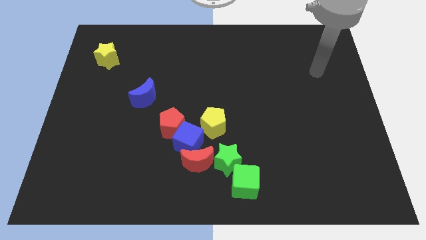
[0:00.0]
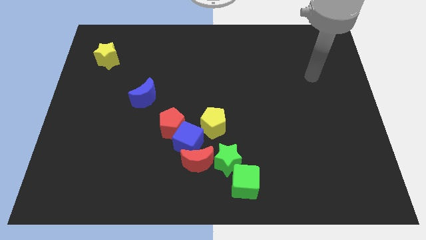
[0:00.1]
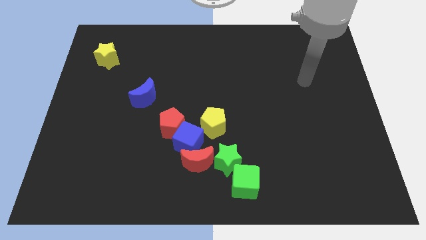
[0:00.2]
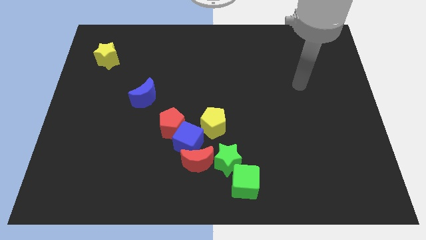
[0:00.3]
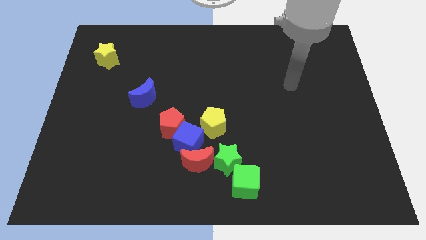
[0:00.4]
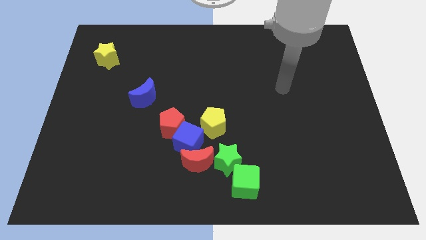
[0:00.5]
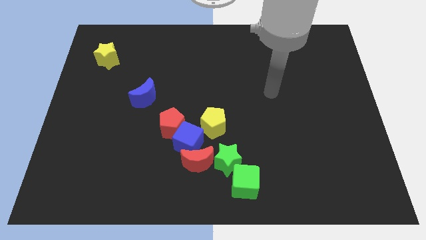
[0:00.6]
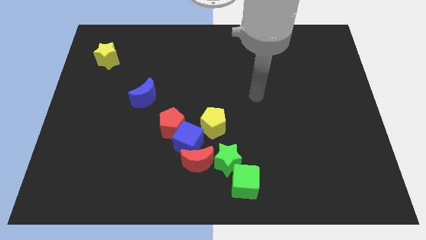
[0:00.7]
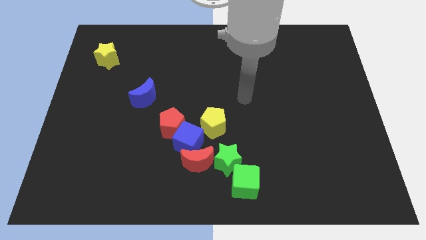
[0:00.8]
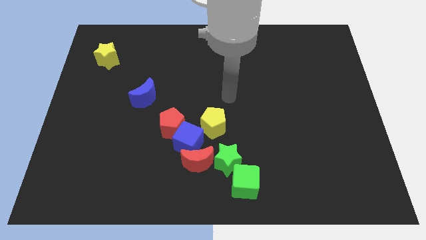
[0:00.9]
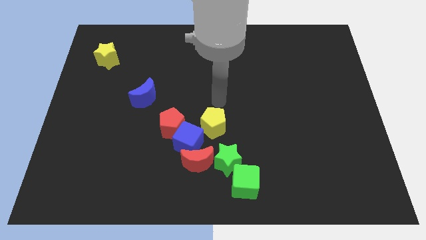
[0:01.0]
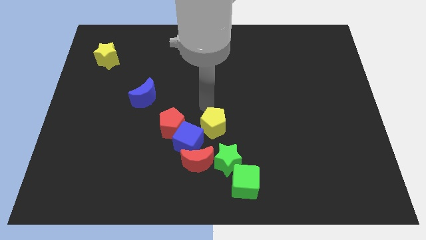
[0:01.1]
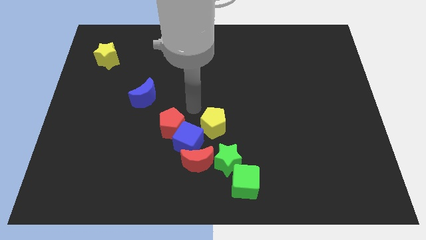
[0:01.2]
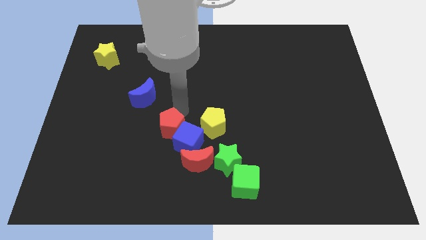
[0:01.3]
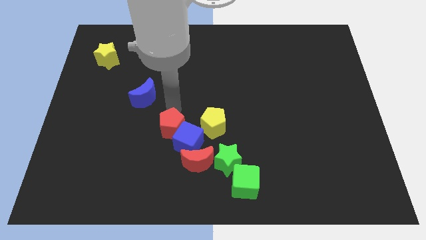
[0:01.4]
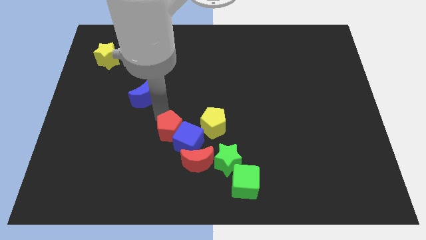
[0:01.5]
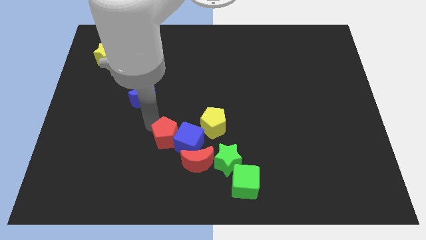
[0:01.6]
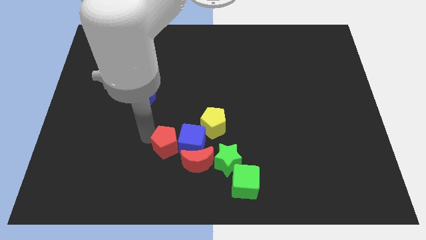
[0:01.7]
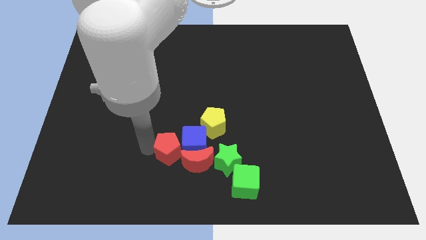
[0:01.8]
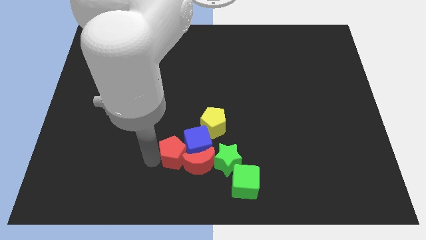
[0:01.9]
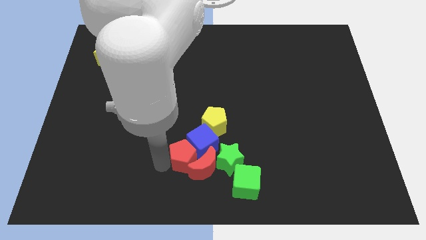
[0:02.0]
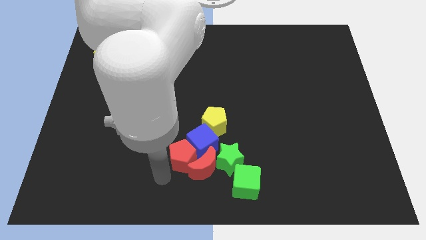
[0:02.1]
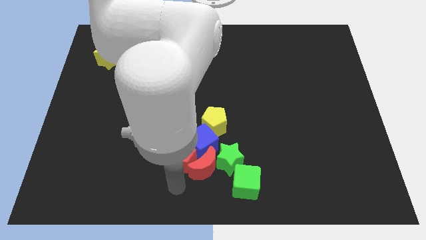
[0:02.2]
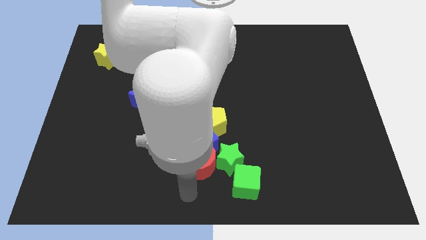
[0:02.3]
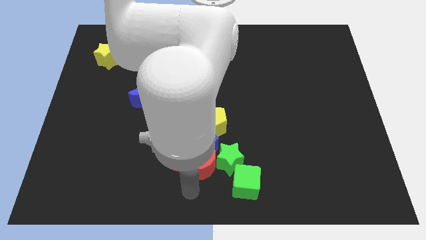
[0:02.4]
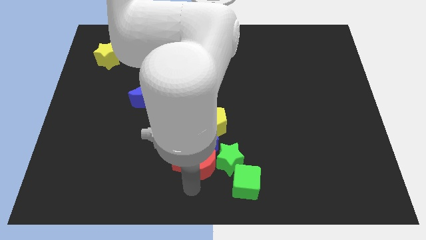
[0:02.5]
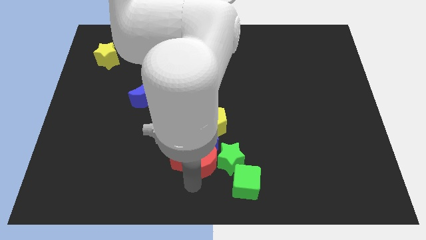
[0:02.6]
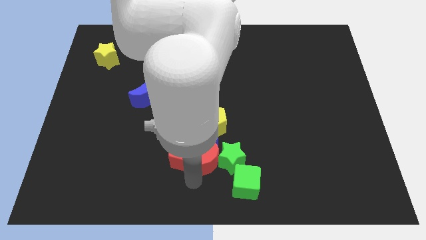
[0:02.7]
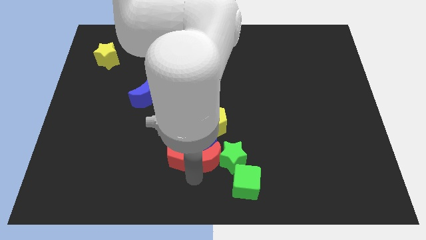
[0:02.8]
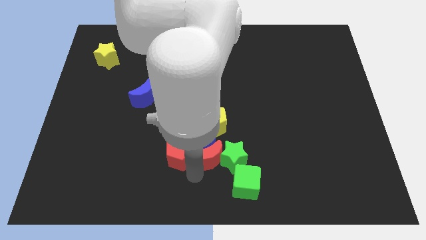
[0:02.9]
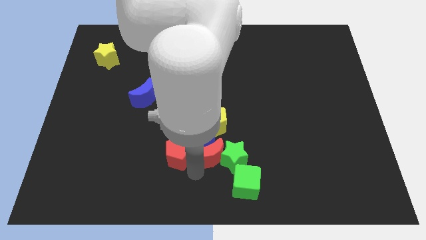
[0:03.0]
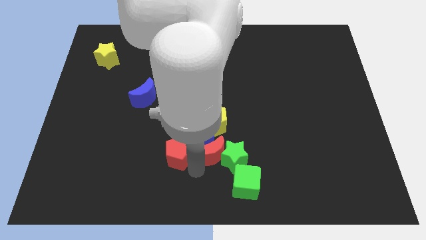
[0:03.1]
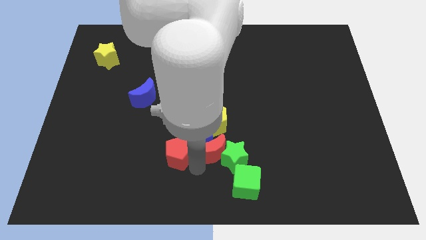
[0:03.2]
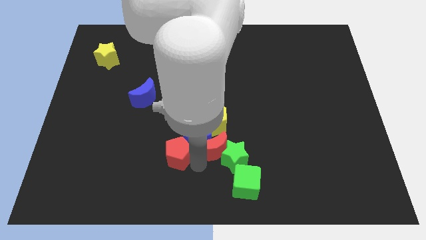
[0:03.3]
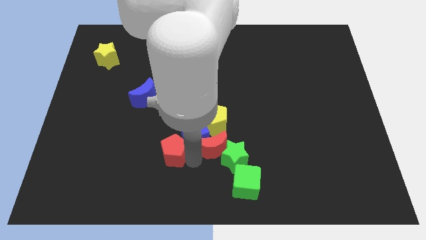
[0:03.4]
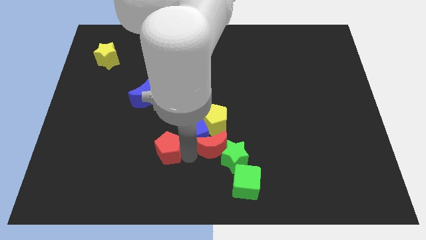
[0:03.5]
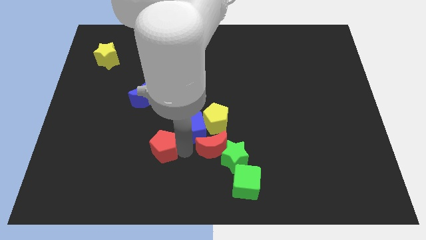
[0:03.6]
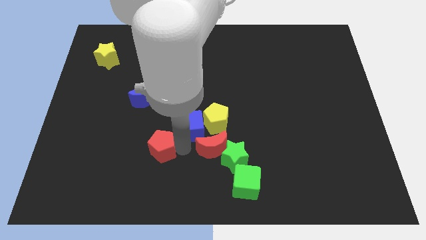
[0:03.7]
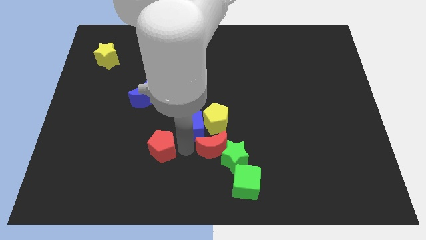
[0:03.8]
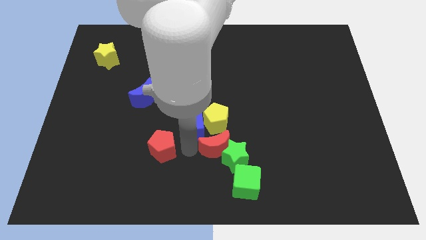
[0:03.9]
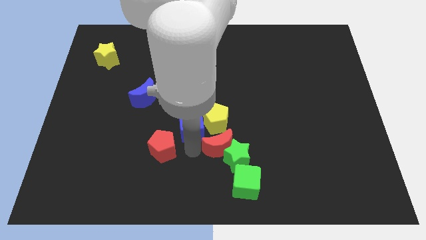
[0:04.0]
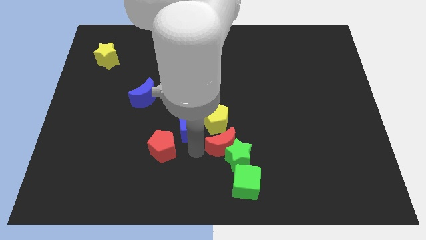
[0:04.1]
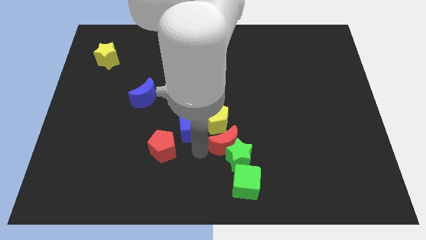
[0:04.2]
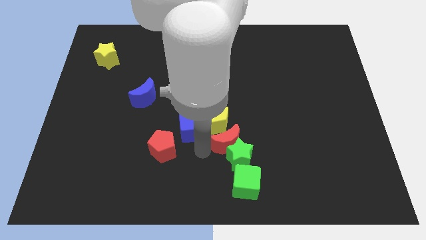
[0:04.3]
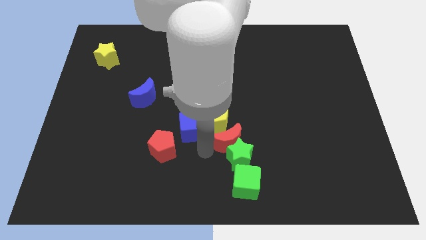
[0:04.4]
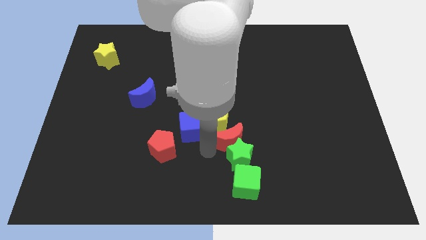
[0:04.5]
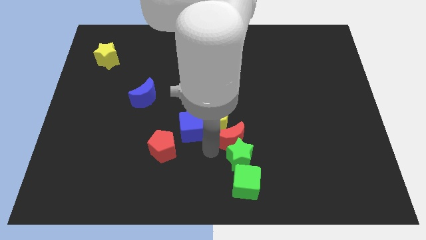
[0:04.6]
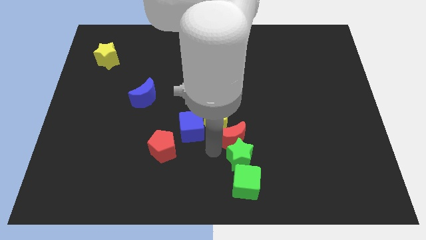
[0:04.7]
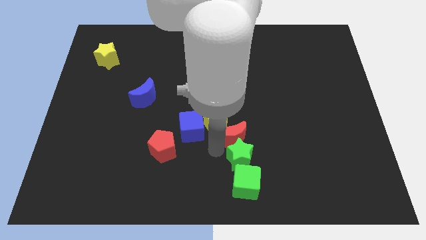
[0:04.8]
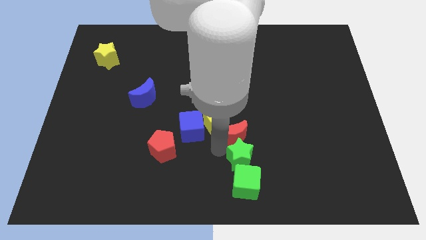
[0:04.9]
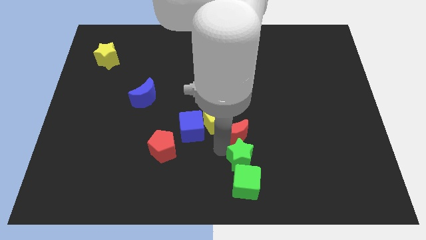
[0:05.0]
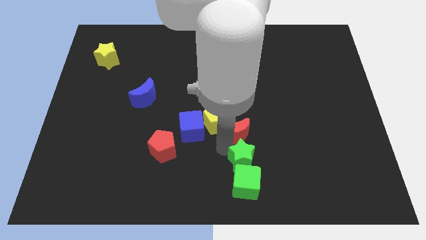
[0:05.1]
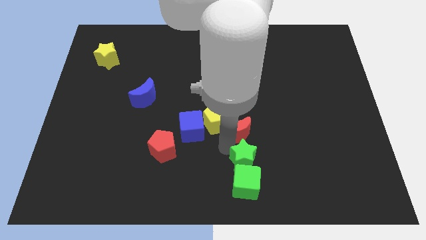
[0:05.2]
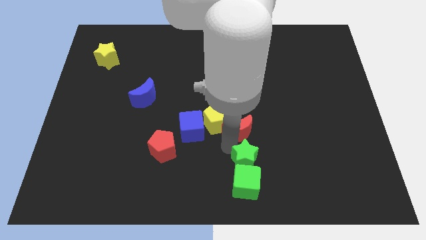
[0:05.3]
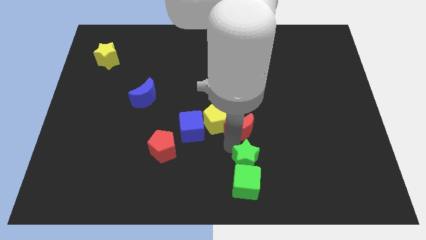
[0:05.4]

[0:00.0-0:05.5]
push the red moon to the right a little bit

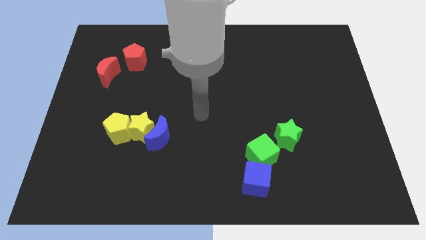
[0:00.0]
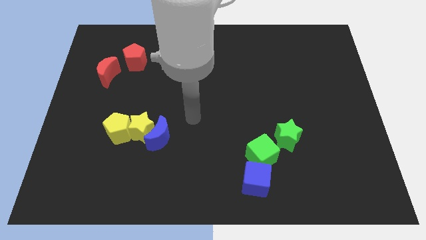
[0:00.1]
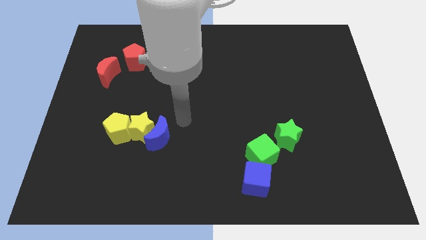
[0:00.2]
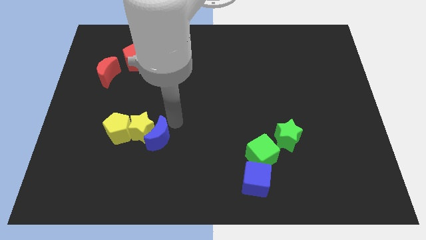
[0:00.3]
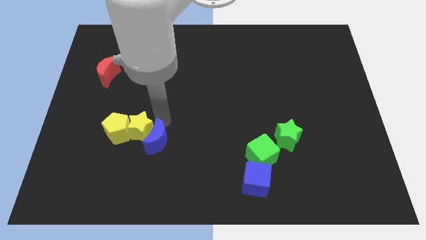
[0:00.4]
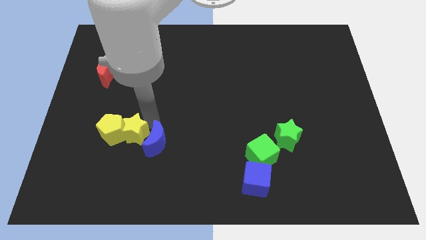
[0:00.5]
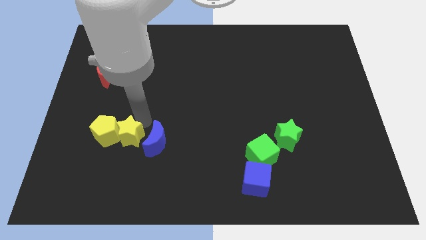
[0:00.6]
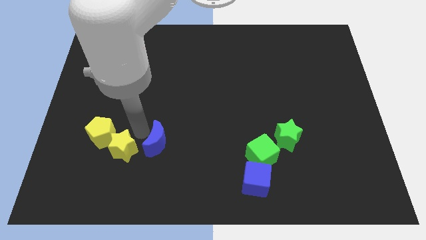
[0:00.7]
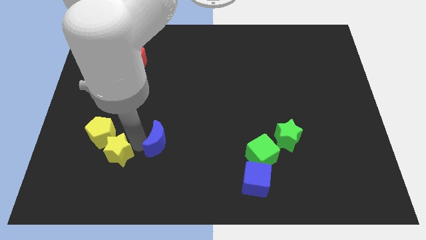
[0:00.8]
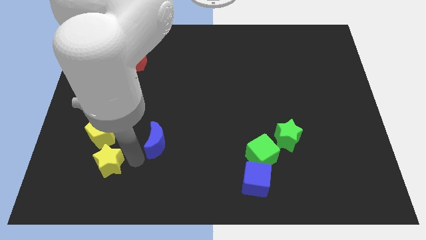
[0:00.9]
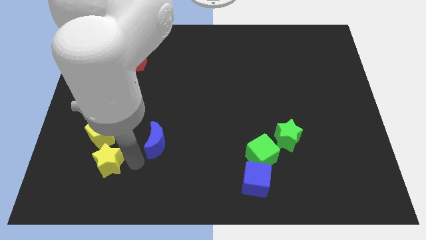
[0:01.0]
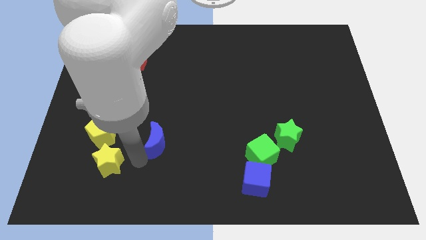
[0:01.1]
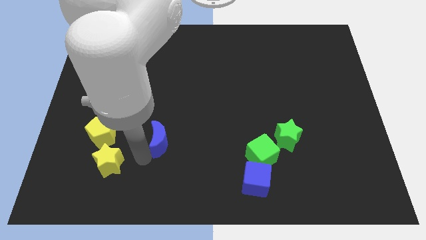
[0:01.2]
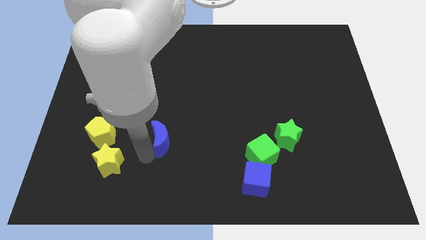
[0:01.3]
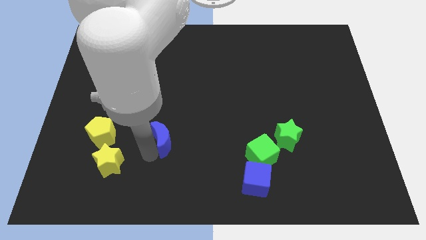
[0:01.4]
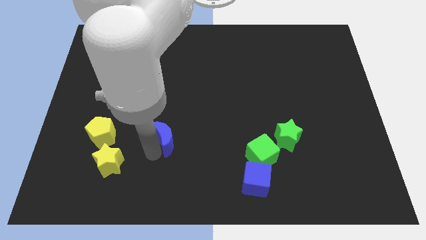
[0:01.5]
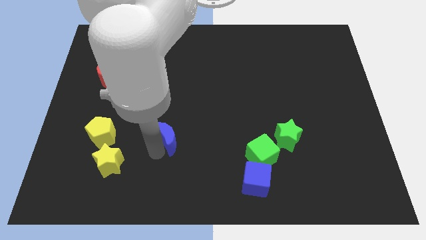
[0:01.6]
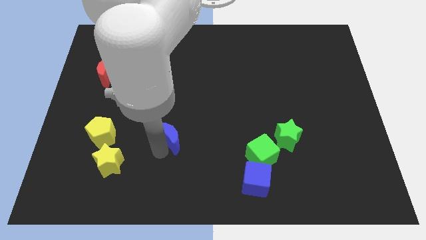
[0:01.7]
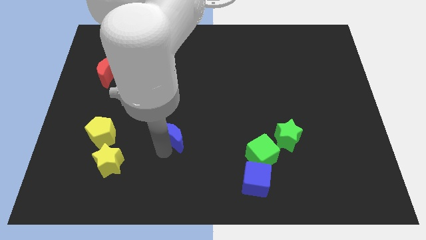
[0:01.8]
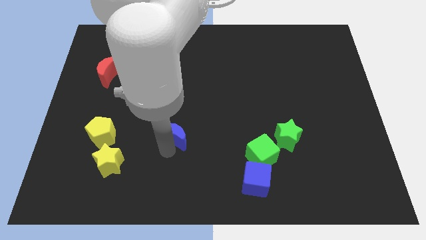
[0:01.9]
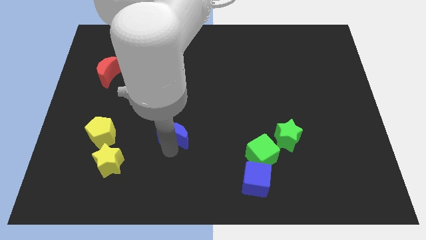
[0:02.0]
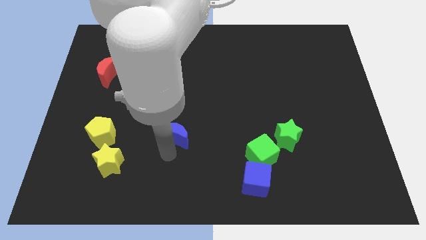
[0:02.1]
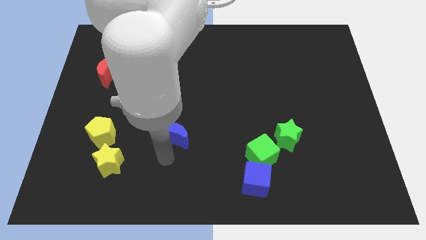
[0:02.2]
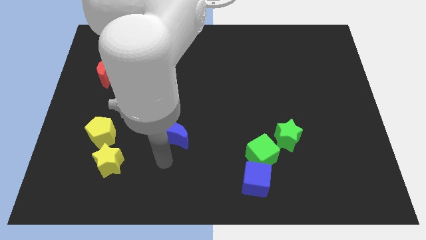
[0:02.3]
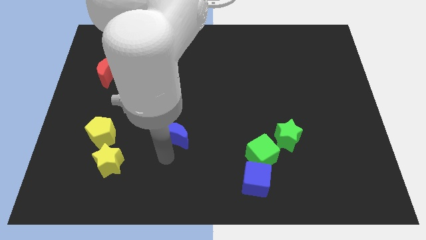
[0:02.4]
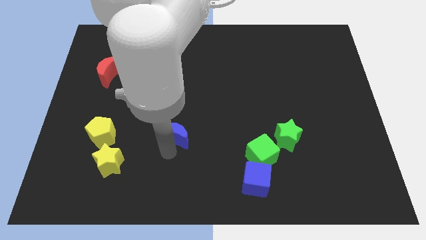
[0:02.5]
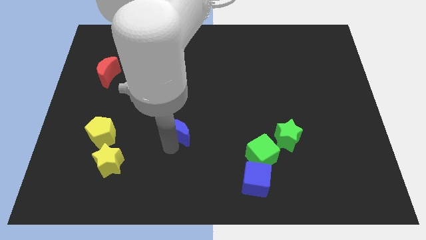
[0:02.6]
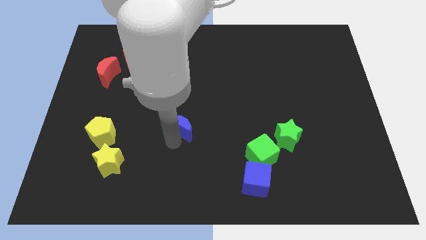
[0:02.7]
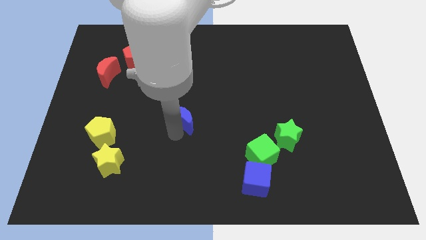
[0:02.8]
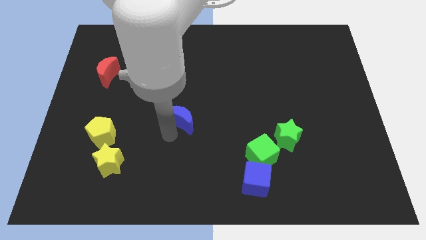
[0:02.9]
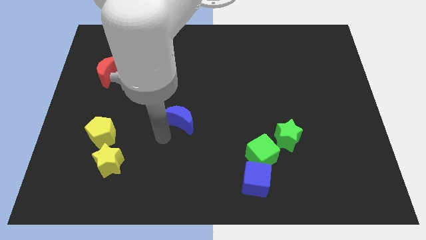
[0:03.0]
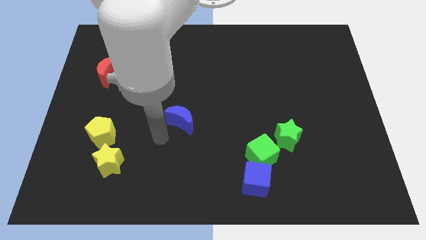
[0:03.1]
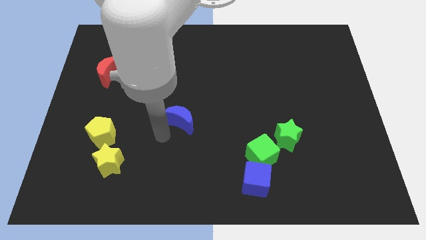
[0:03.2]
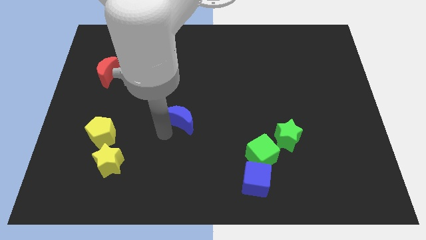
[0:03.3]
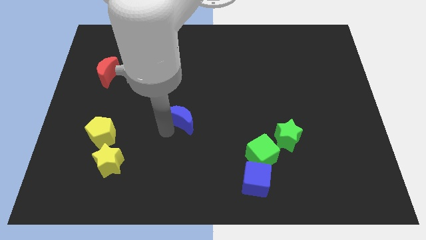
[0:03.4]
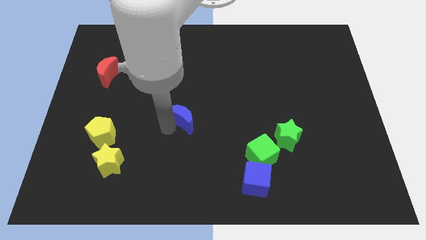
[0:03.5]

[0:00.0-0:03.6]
slightly slide the blue moon up and then right
